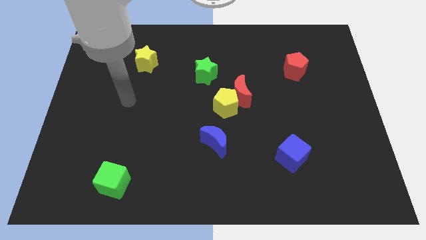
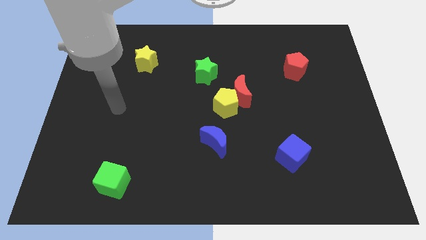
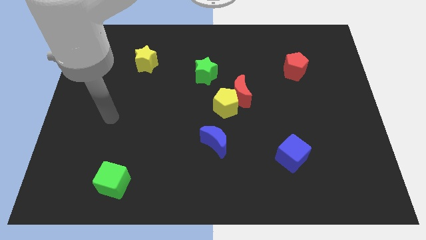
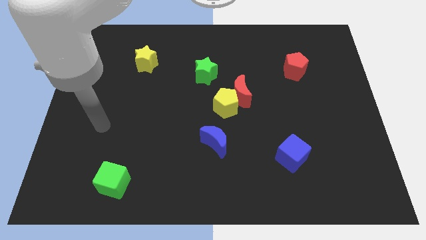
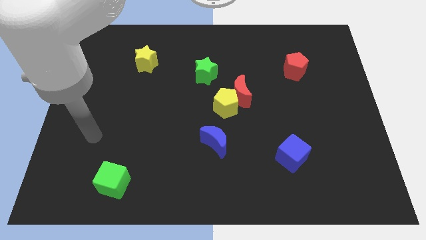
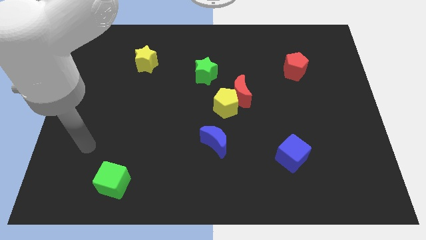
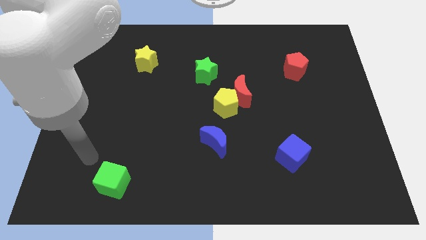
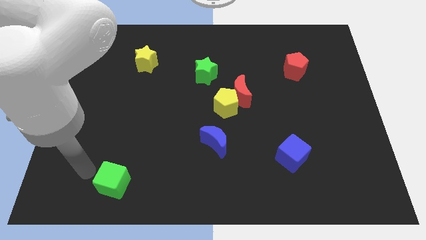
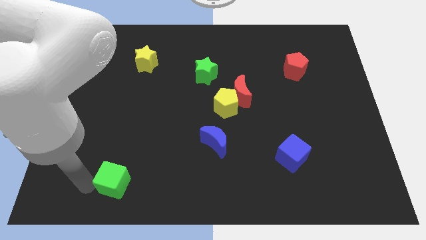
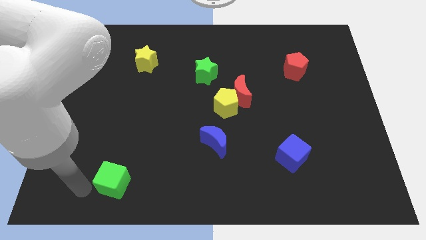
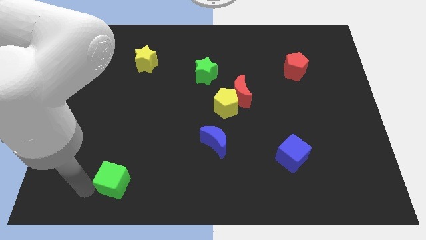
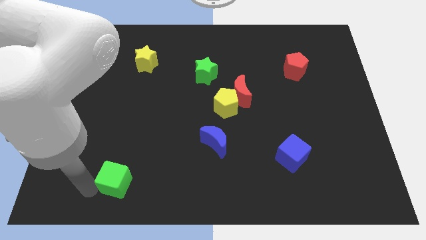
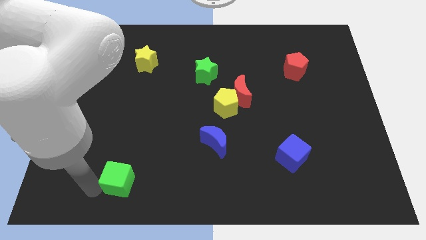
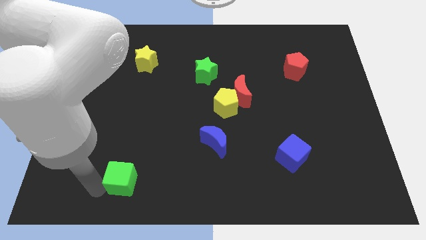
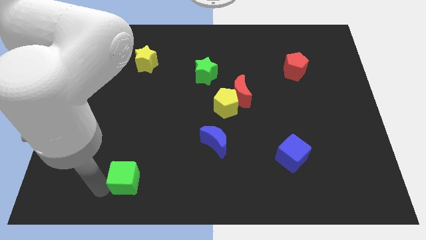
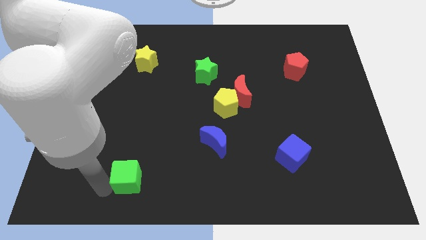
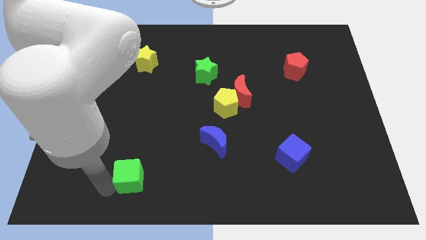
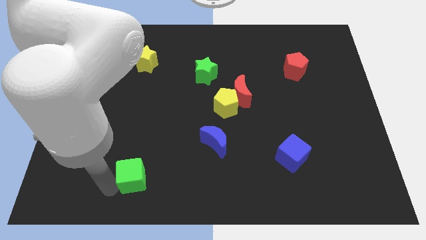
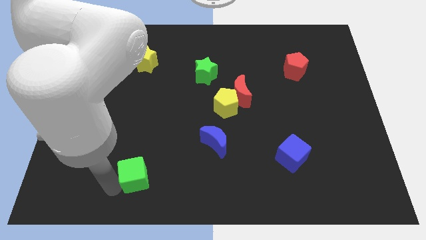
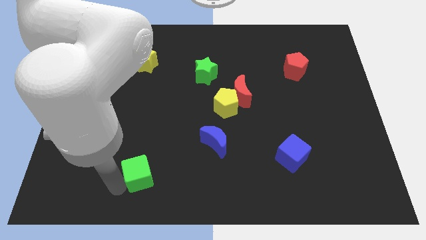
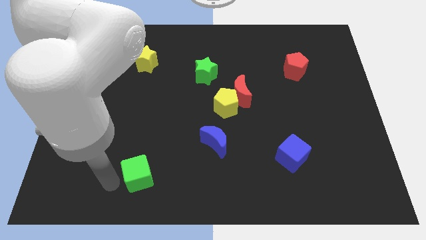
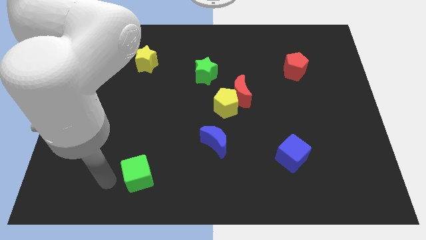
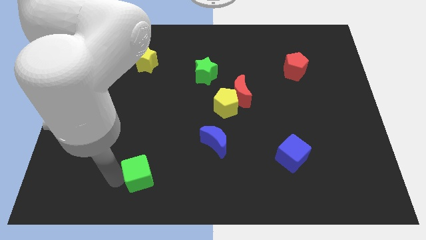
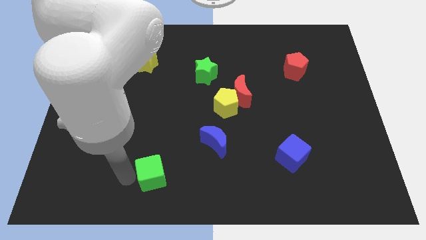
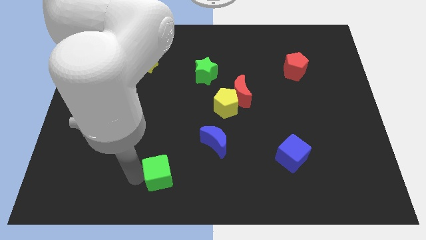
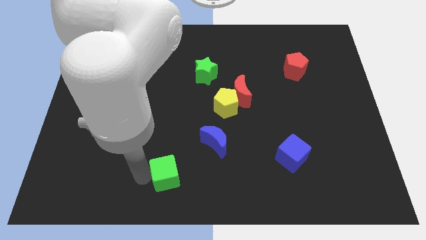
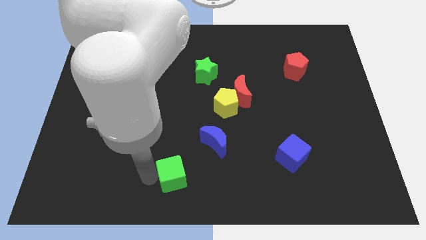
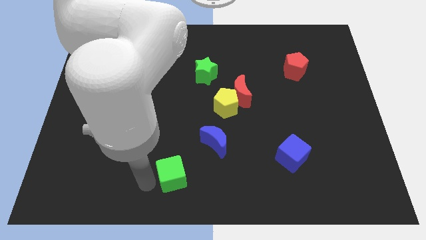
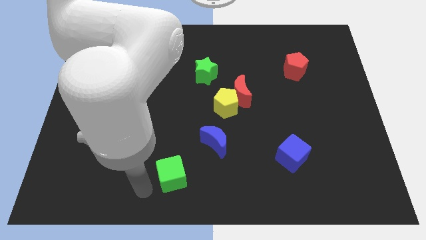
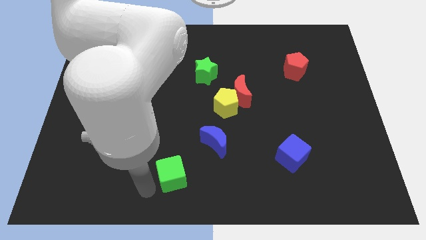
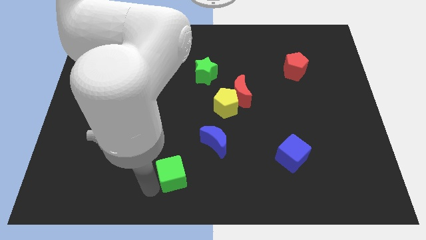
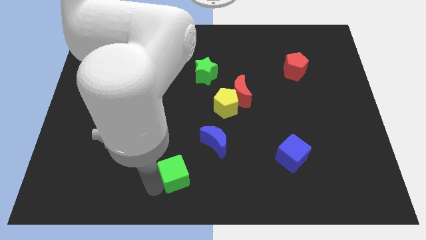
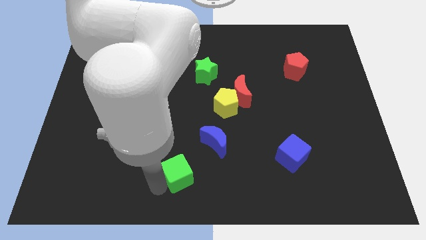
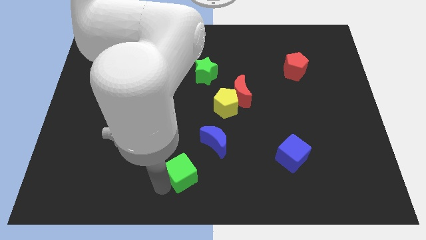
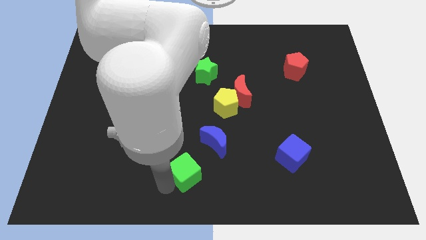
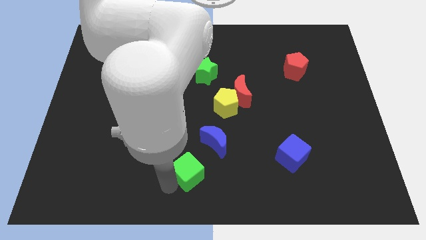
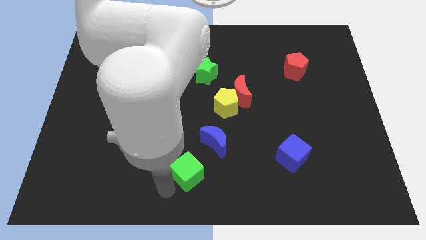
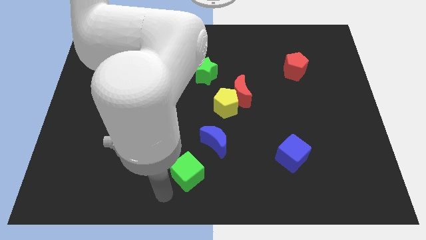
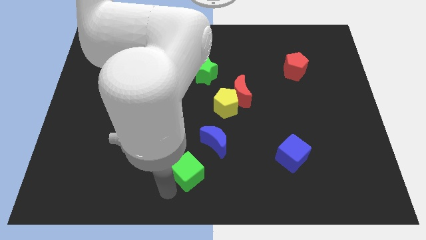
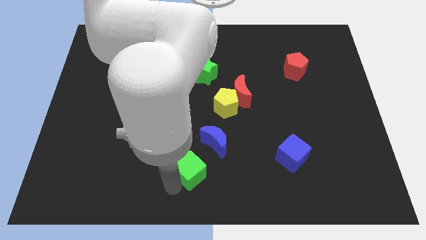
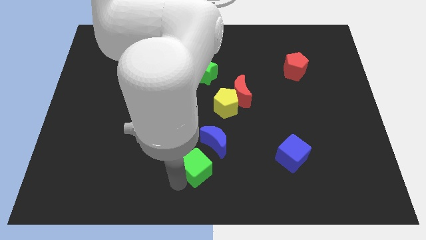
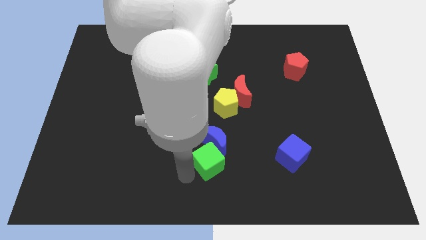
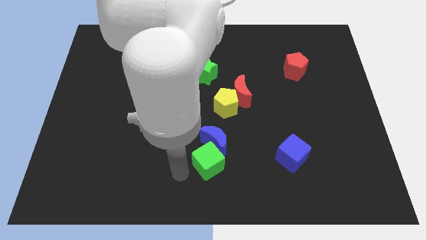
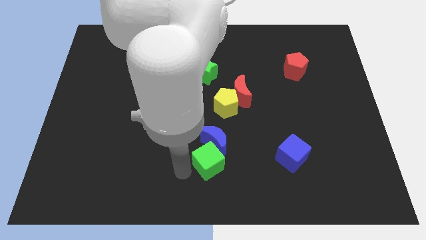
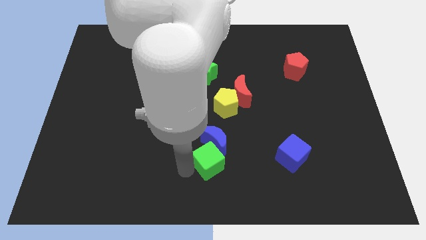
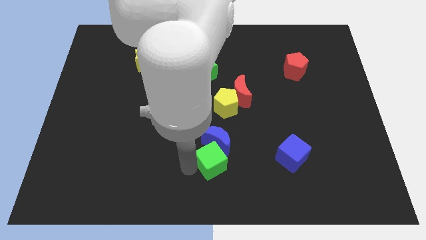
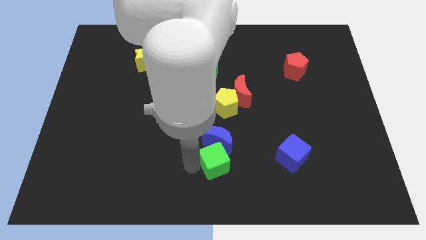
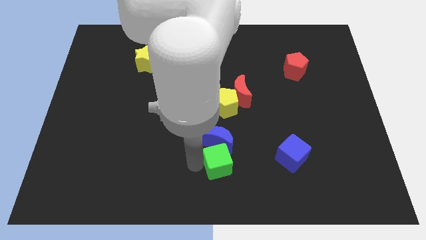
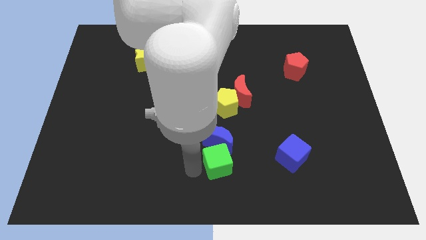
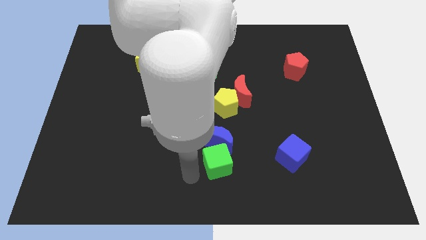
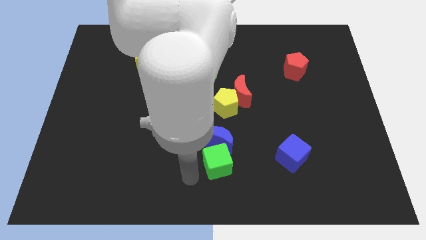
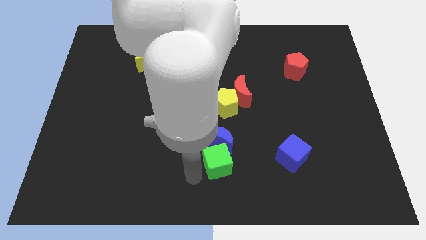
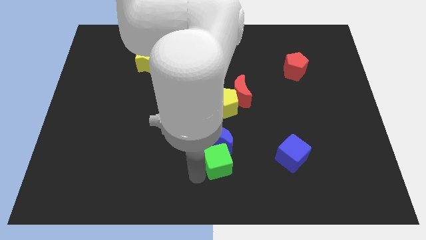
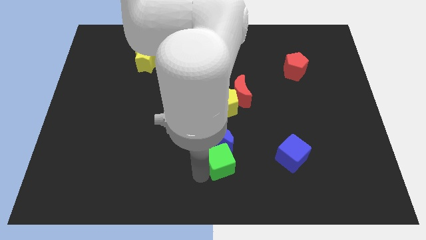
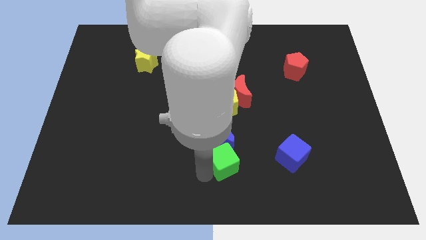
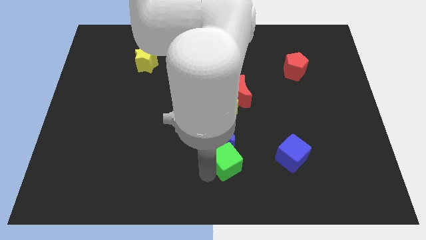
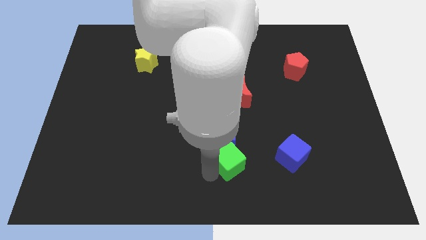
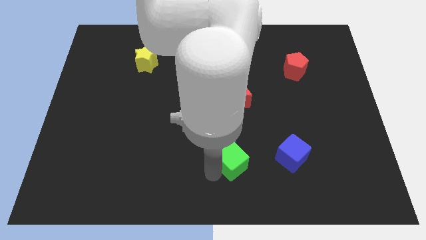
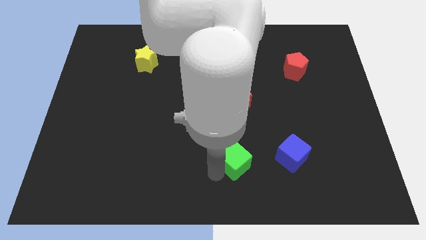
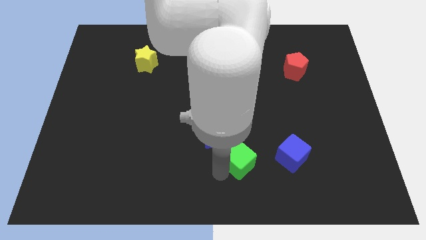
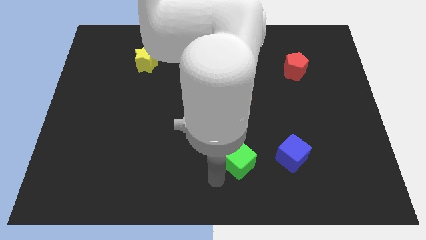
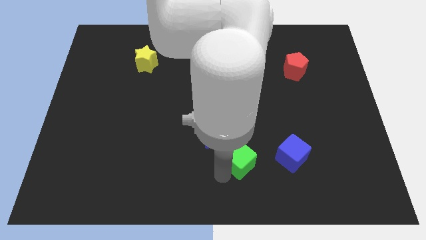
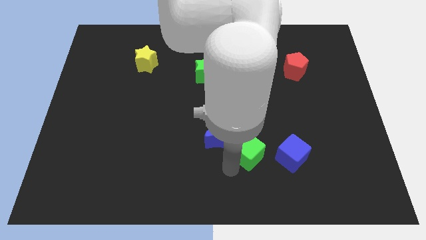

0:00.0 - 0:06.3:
slide the green cube just right of the blue moon
